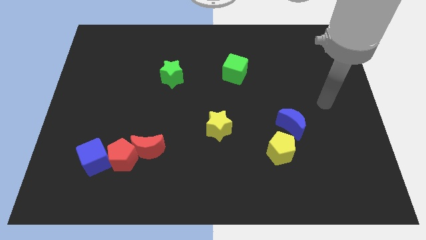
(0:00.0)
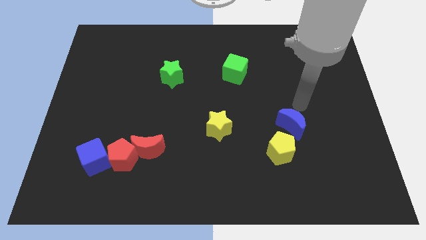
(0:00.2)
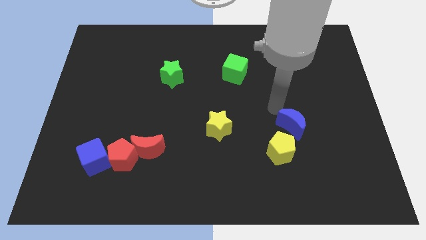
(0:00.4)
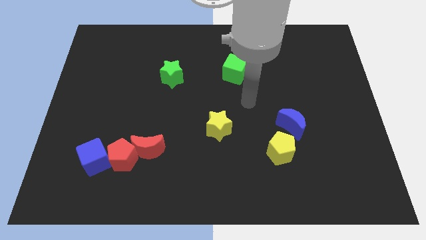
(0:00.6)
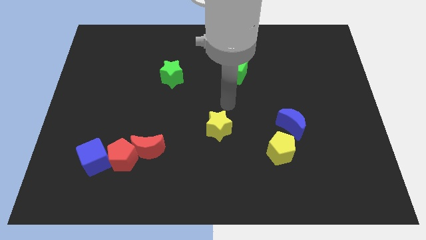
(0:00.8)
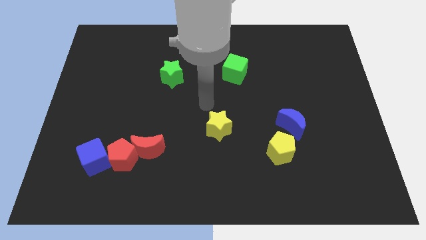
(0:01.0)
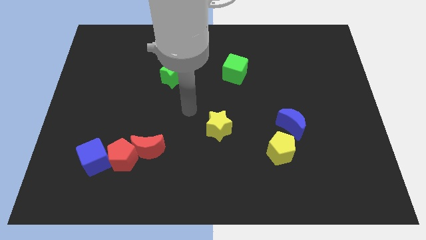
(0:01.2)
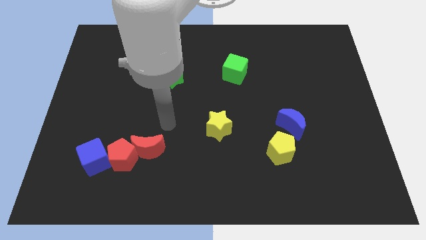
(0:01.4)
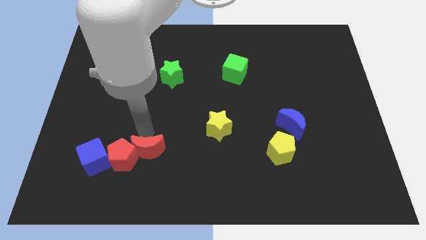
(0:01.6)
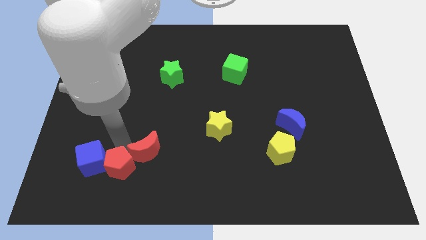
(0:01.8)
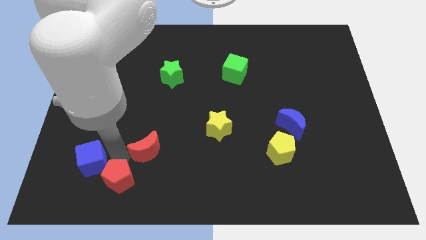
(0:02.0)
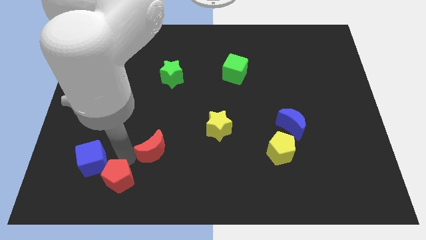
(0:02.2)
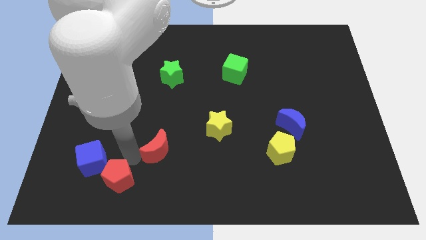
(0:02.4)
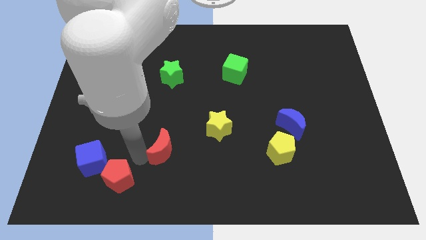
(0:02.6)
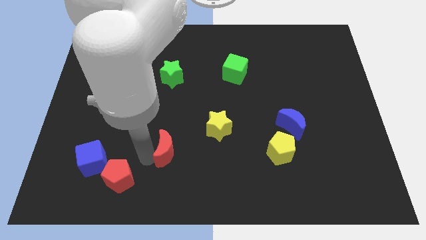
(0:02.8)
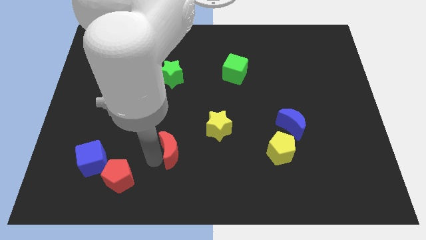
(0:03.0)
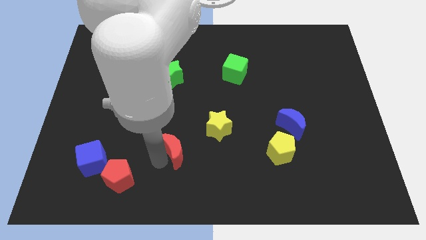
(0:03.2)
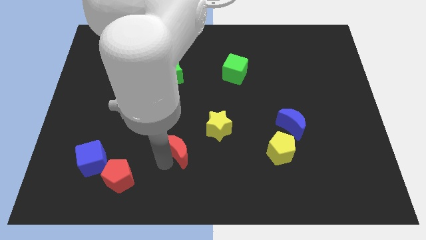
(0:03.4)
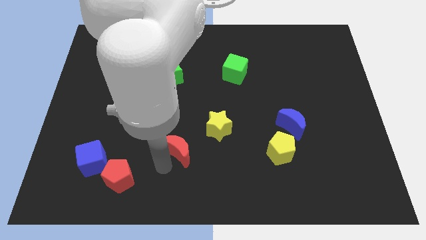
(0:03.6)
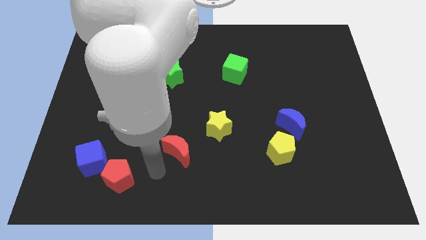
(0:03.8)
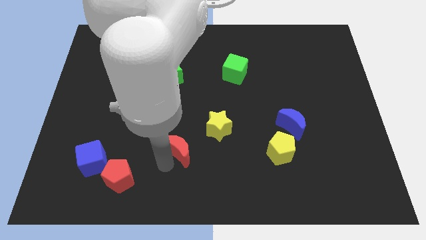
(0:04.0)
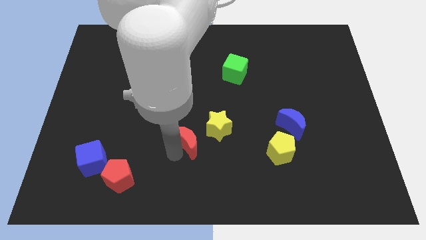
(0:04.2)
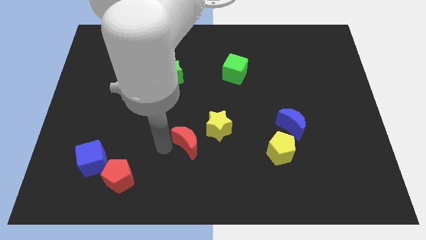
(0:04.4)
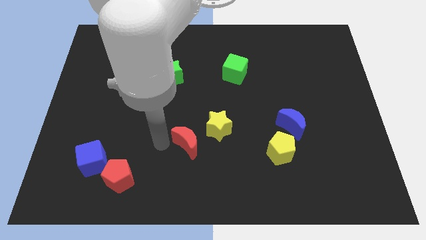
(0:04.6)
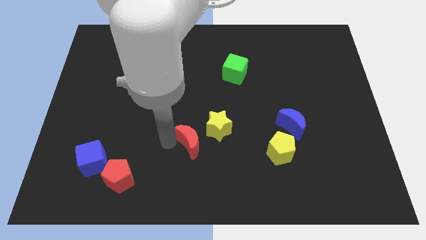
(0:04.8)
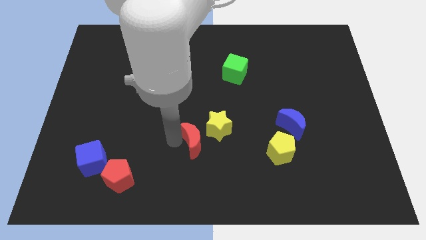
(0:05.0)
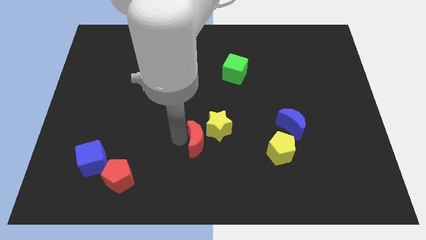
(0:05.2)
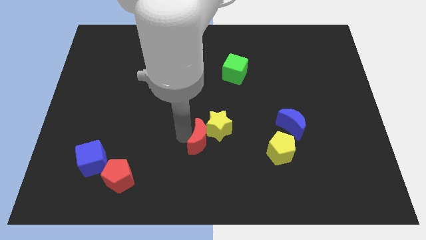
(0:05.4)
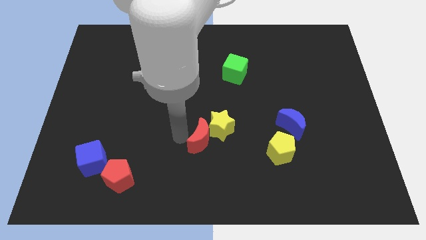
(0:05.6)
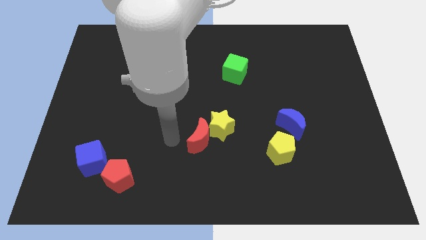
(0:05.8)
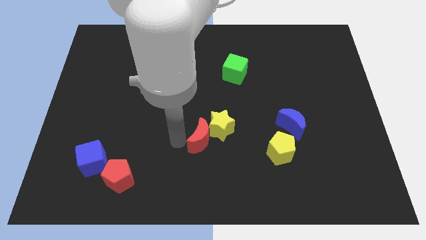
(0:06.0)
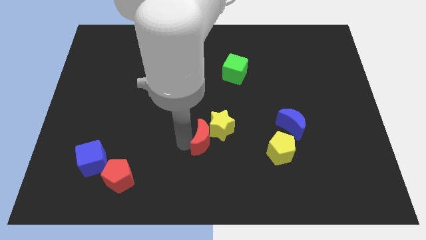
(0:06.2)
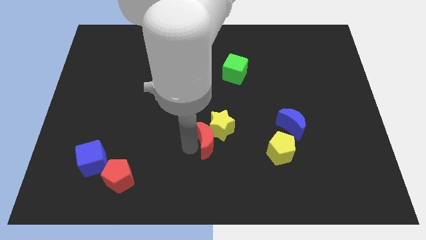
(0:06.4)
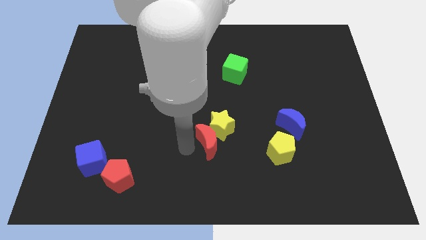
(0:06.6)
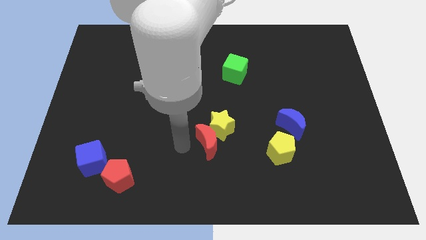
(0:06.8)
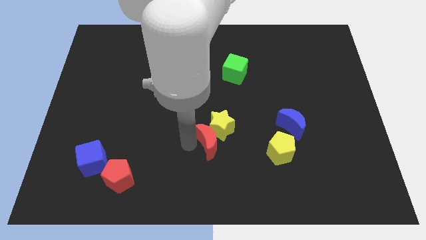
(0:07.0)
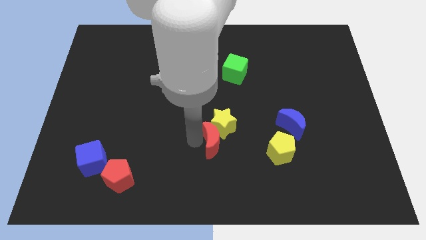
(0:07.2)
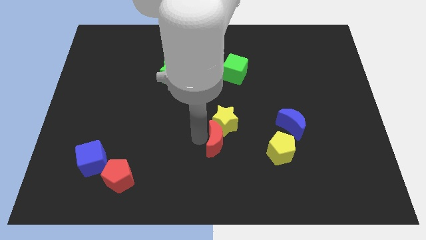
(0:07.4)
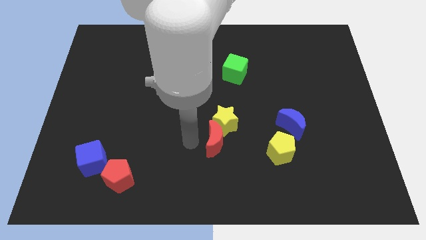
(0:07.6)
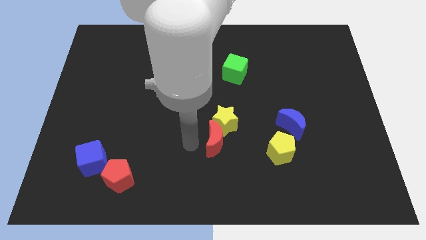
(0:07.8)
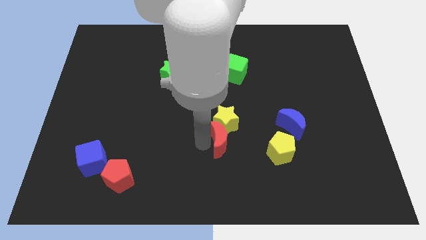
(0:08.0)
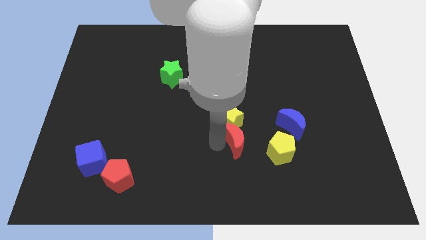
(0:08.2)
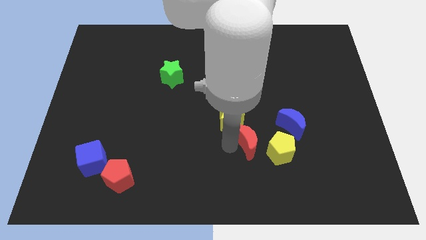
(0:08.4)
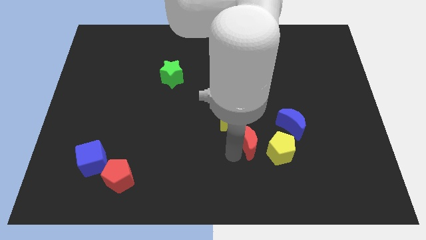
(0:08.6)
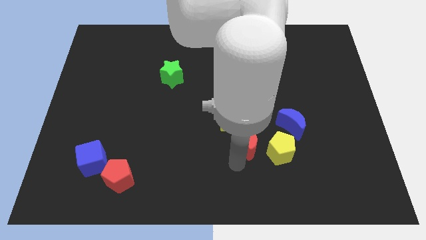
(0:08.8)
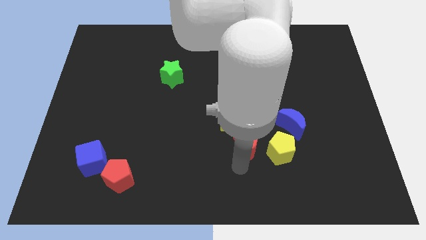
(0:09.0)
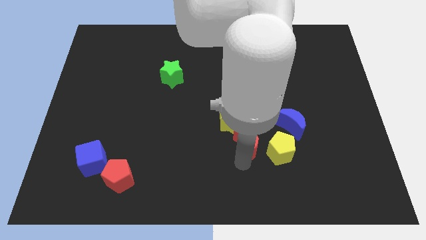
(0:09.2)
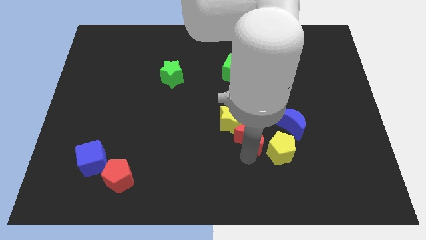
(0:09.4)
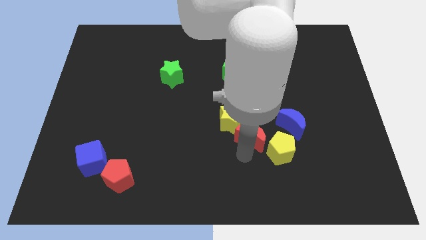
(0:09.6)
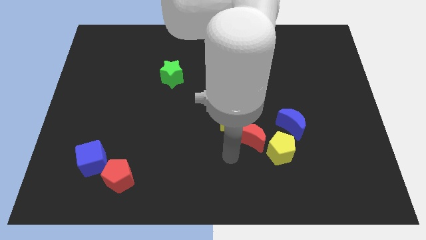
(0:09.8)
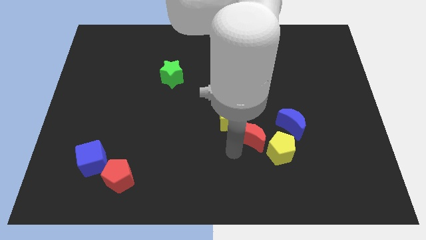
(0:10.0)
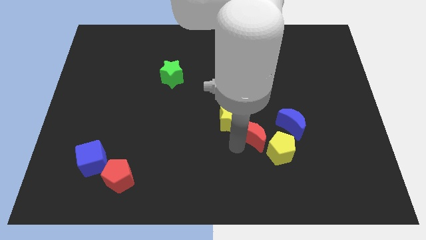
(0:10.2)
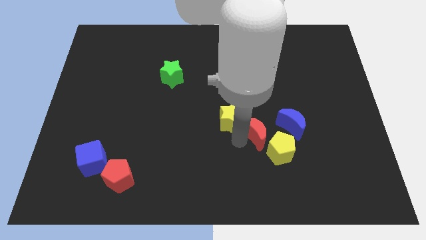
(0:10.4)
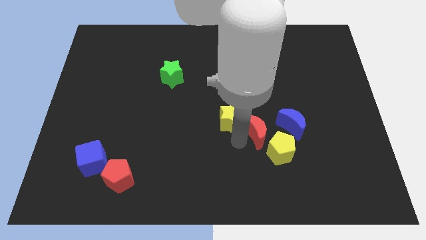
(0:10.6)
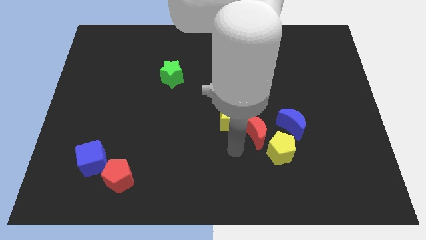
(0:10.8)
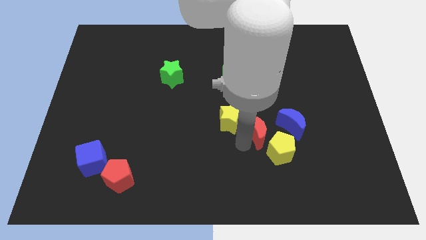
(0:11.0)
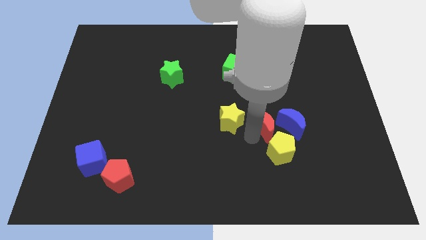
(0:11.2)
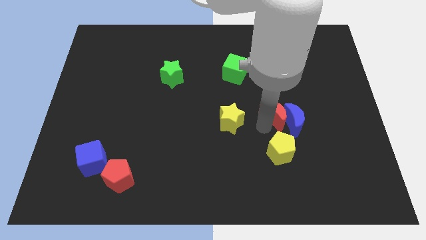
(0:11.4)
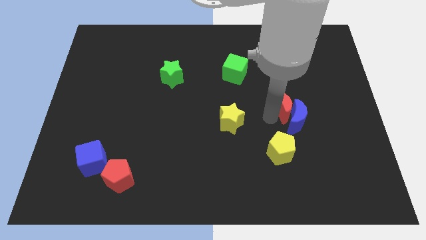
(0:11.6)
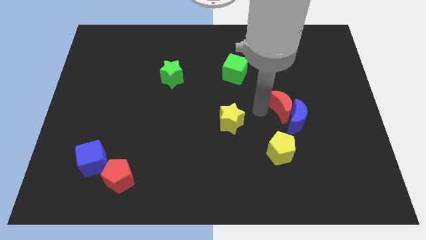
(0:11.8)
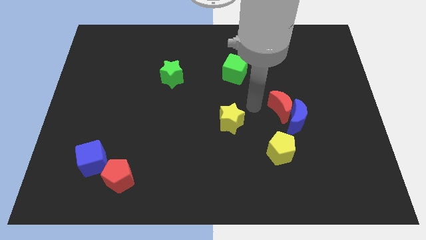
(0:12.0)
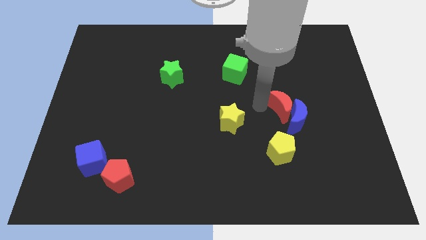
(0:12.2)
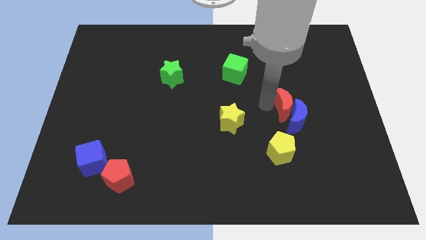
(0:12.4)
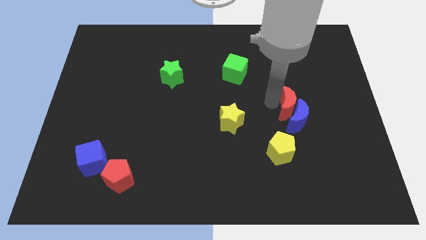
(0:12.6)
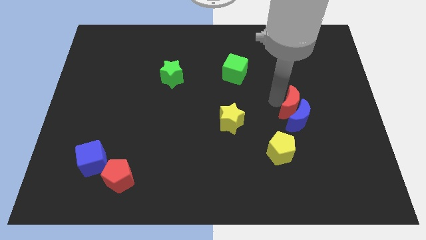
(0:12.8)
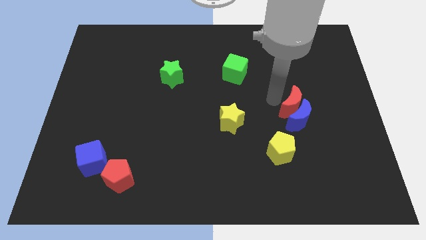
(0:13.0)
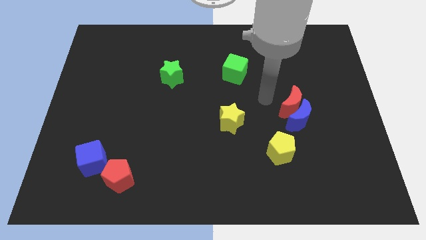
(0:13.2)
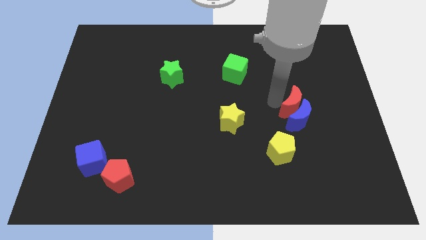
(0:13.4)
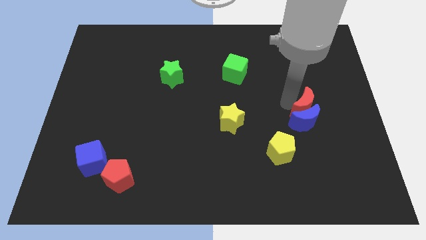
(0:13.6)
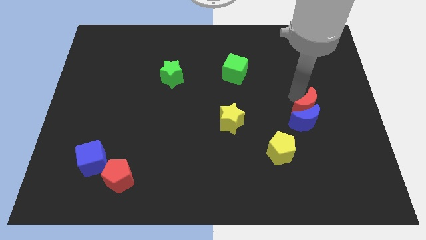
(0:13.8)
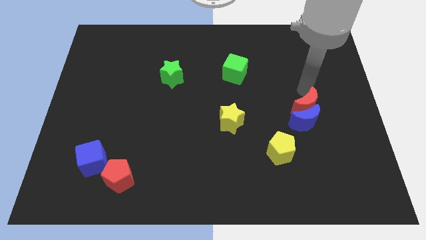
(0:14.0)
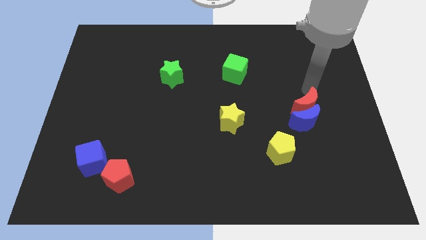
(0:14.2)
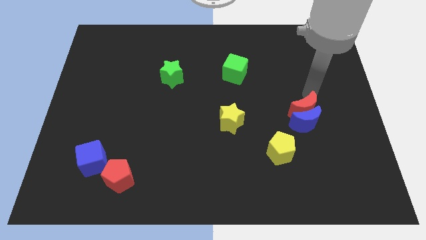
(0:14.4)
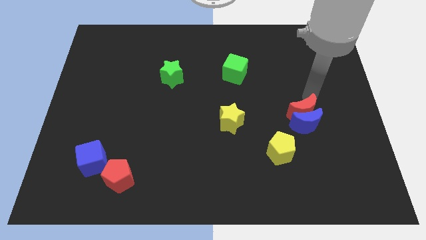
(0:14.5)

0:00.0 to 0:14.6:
put the red moon diagonally up and to the right of the yellow pentagon
